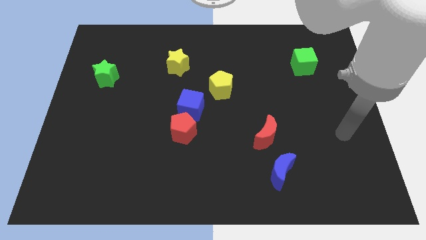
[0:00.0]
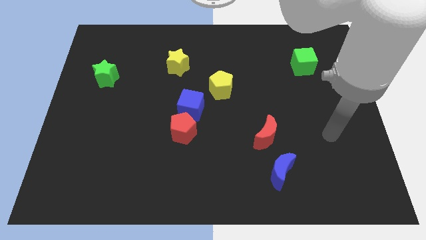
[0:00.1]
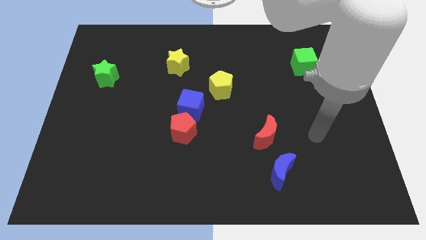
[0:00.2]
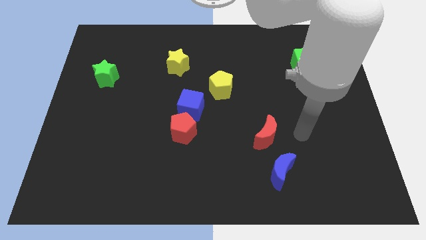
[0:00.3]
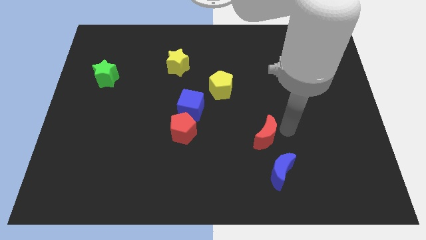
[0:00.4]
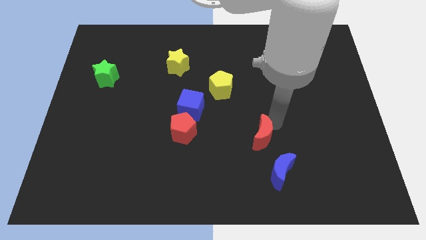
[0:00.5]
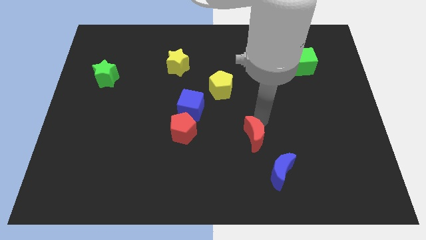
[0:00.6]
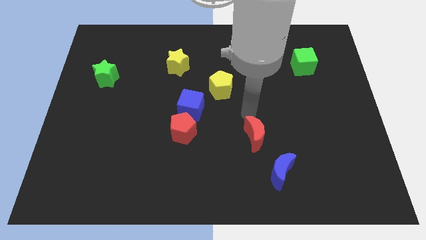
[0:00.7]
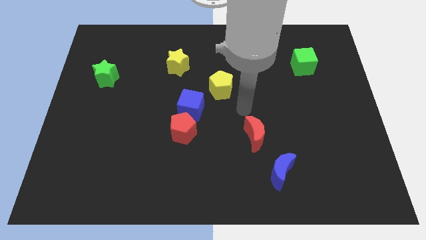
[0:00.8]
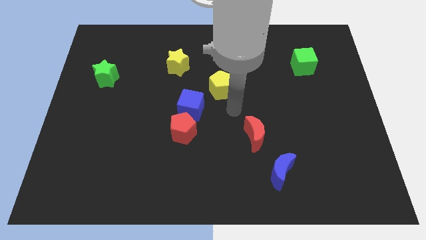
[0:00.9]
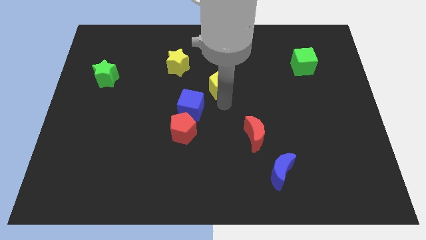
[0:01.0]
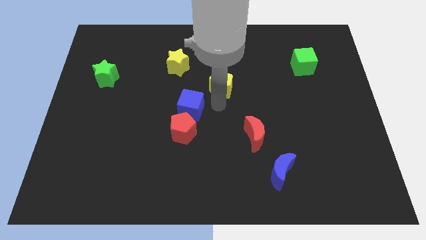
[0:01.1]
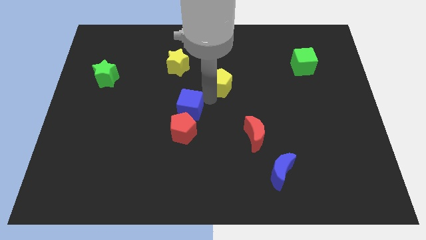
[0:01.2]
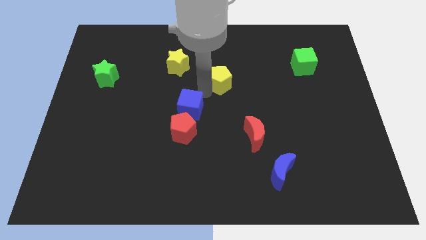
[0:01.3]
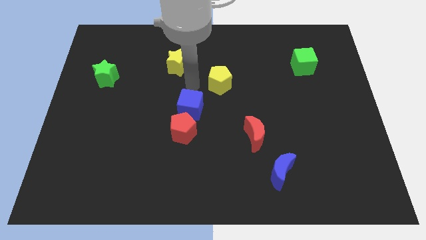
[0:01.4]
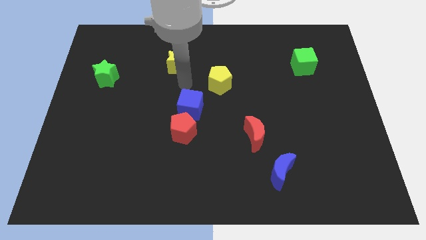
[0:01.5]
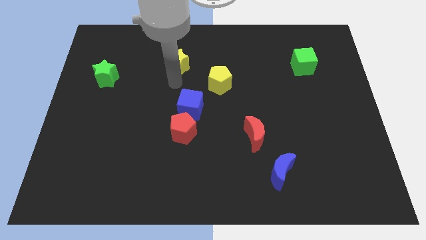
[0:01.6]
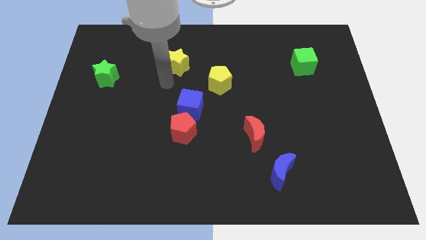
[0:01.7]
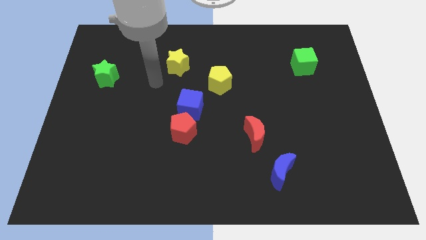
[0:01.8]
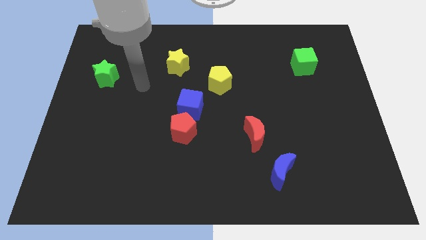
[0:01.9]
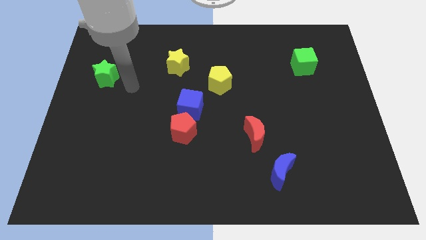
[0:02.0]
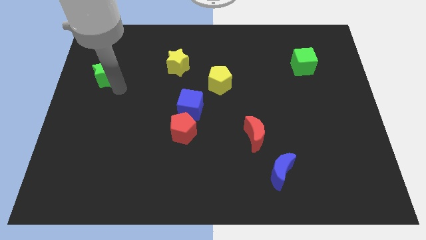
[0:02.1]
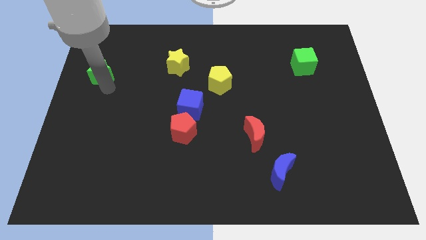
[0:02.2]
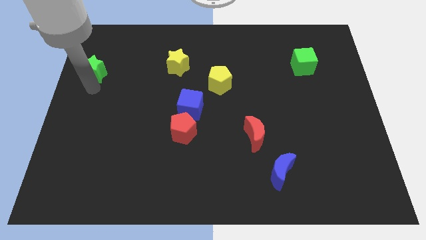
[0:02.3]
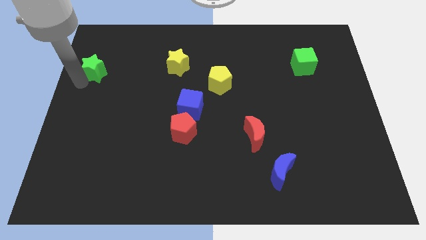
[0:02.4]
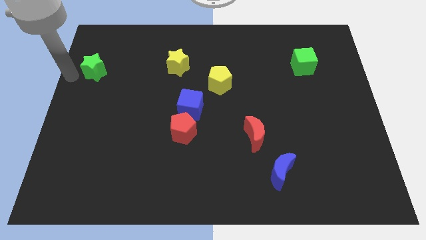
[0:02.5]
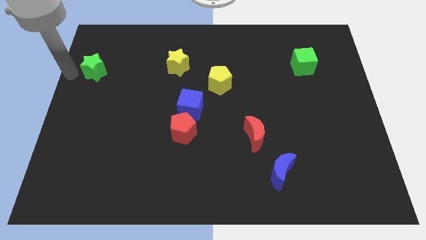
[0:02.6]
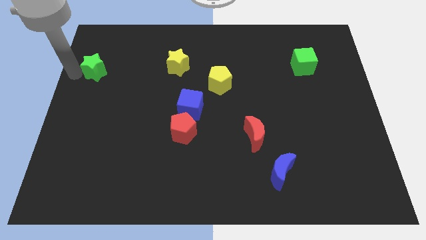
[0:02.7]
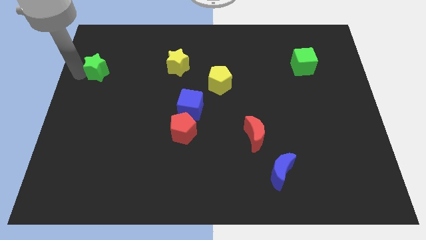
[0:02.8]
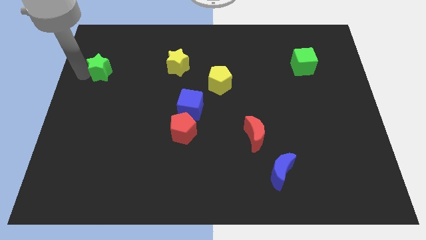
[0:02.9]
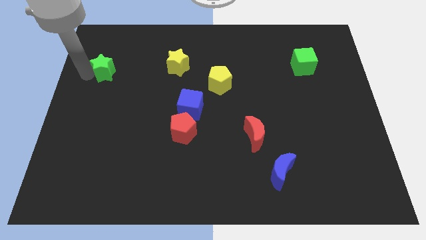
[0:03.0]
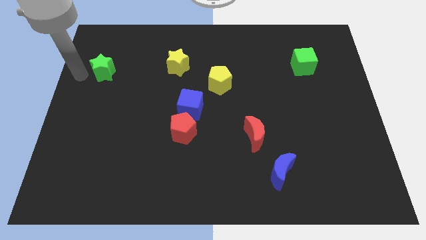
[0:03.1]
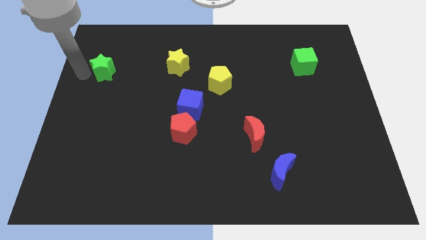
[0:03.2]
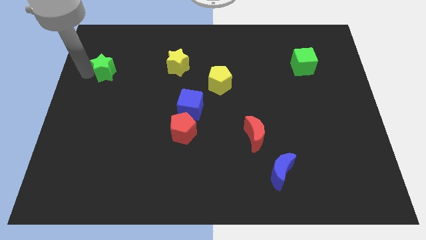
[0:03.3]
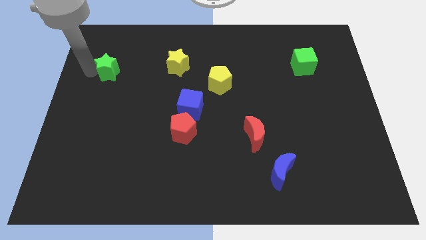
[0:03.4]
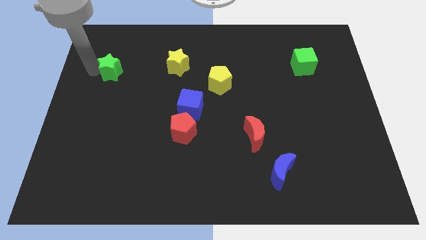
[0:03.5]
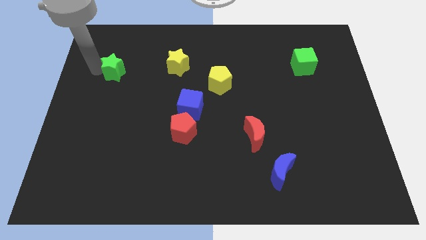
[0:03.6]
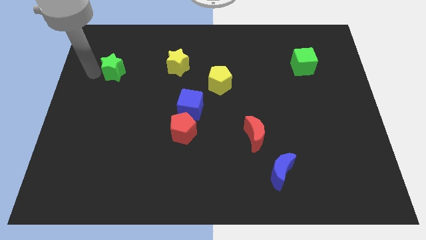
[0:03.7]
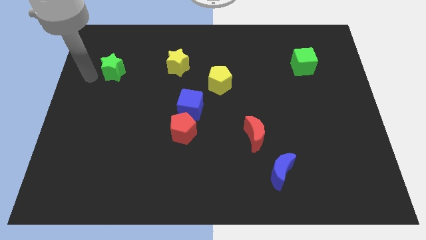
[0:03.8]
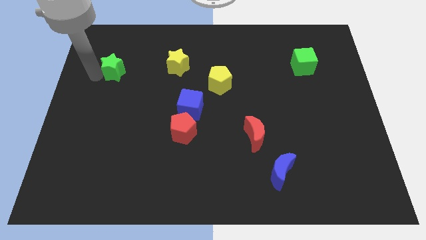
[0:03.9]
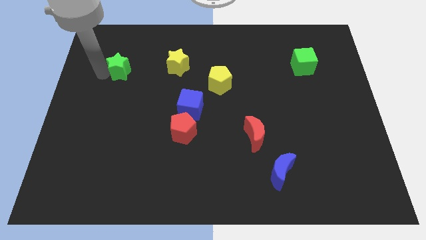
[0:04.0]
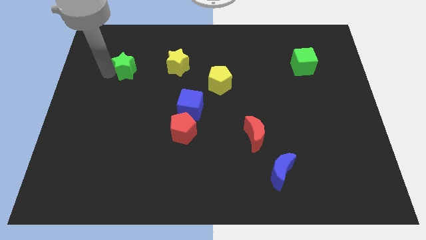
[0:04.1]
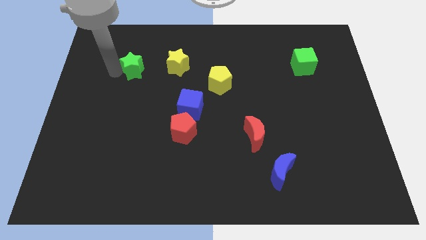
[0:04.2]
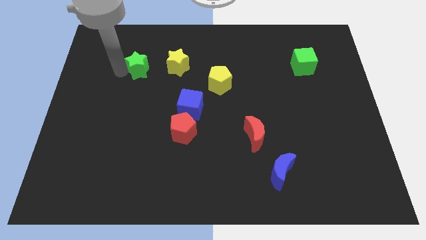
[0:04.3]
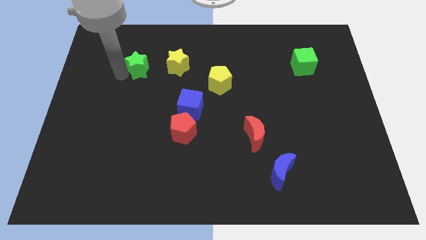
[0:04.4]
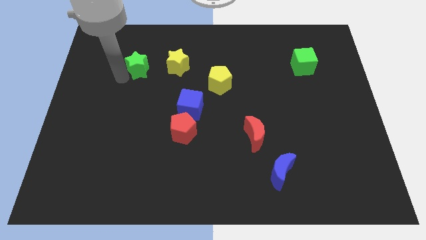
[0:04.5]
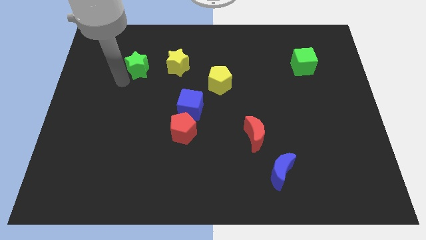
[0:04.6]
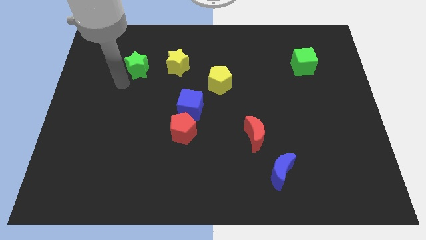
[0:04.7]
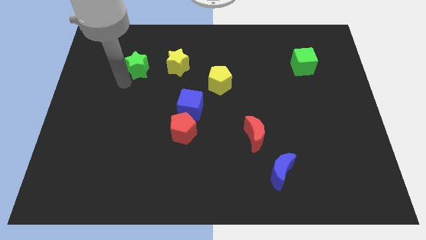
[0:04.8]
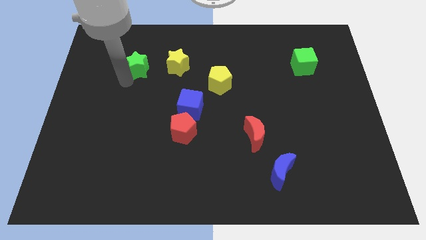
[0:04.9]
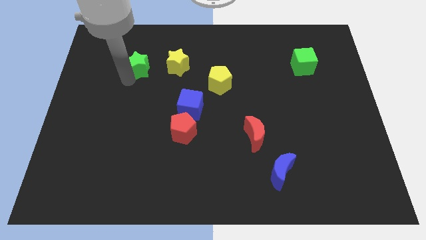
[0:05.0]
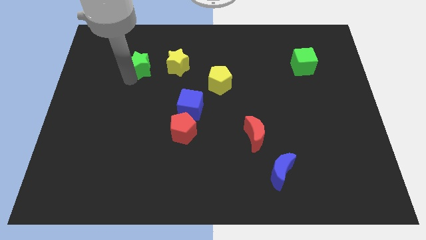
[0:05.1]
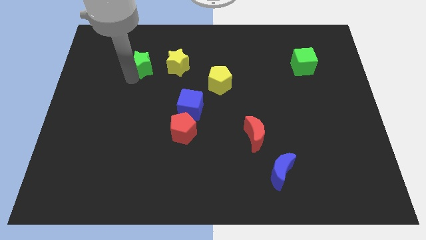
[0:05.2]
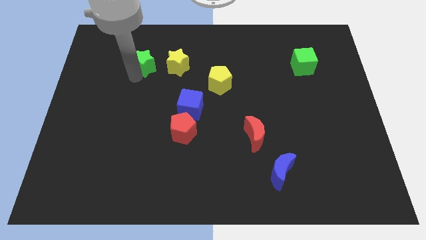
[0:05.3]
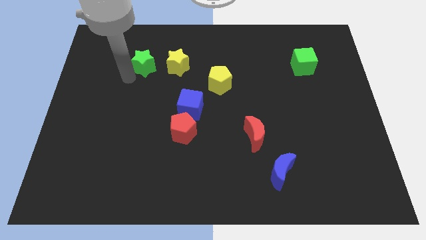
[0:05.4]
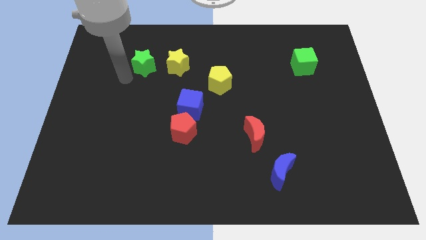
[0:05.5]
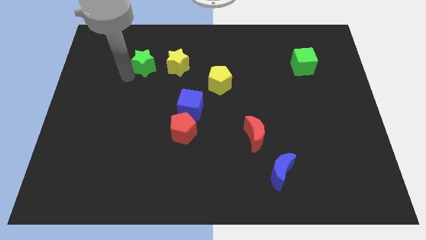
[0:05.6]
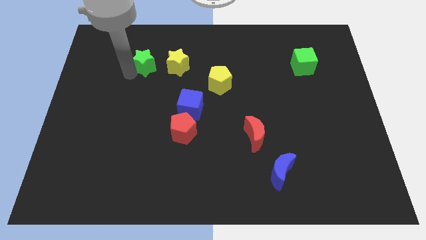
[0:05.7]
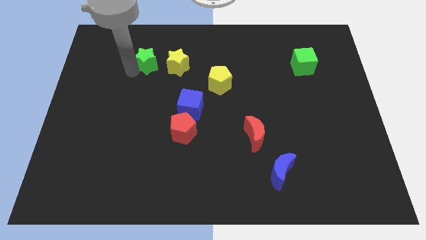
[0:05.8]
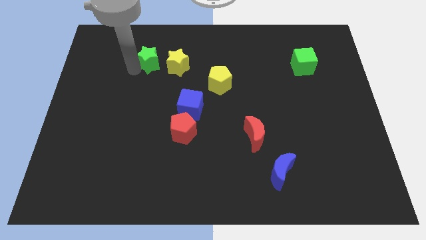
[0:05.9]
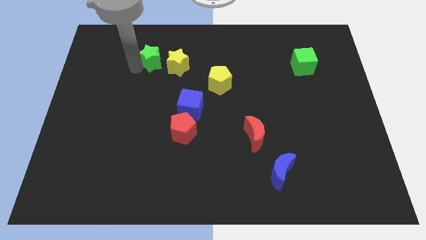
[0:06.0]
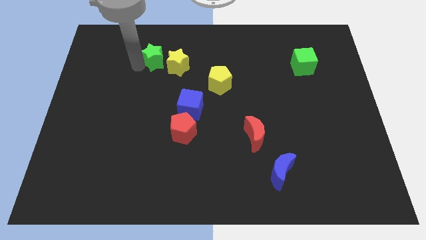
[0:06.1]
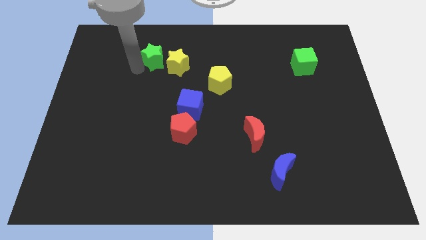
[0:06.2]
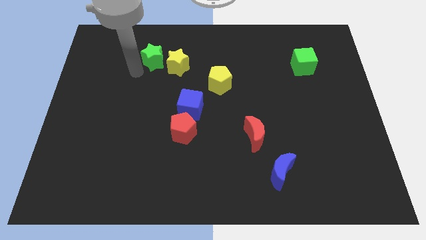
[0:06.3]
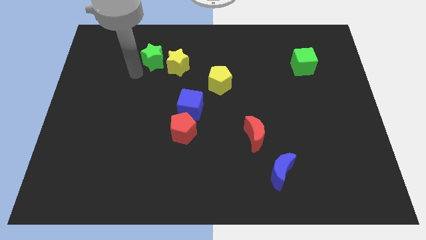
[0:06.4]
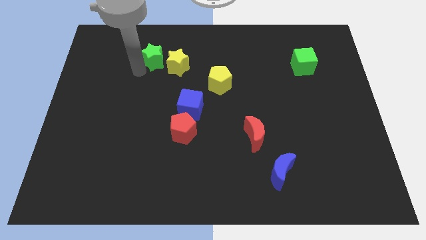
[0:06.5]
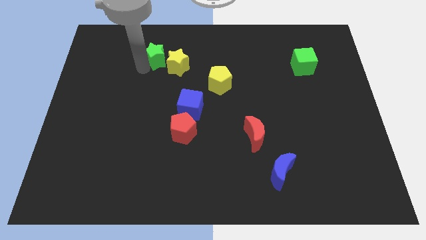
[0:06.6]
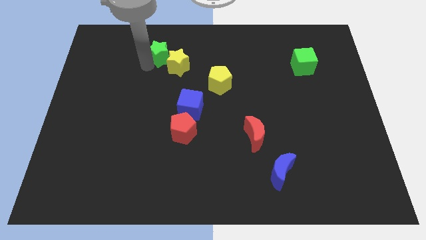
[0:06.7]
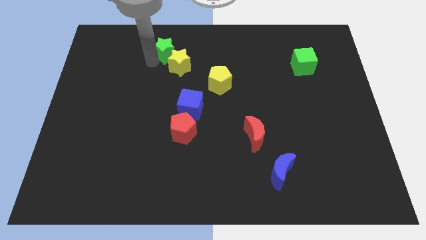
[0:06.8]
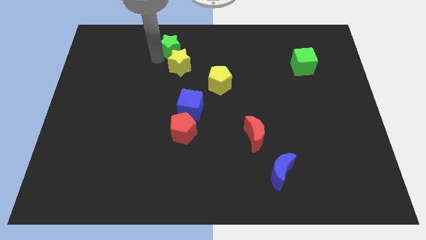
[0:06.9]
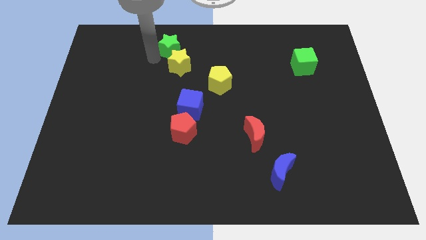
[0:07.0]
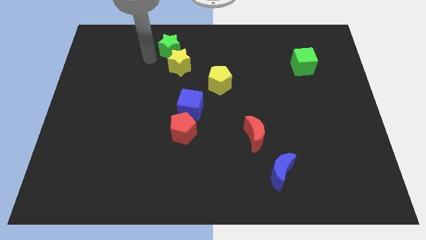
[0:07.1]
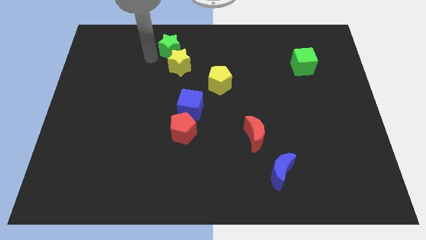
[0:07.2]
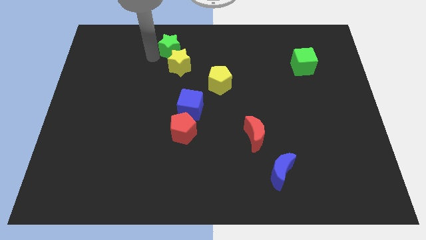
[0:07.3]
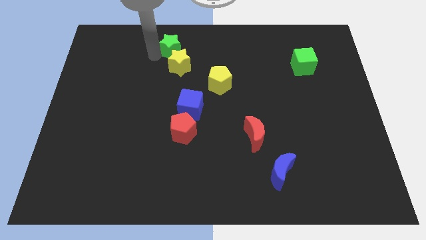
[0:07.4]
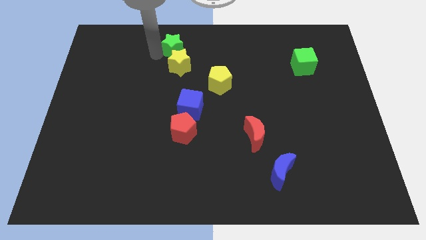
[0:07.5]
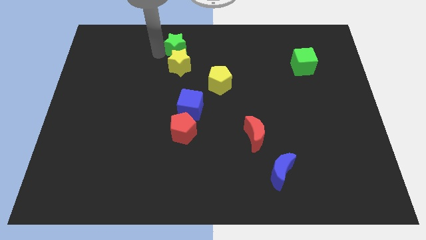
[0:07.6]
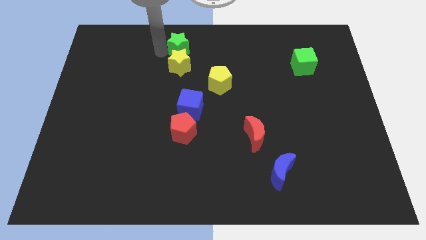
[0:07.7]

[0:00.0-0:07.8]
put the green star to the top side
